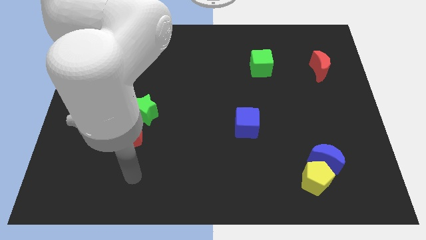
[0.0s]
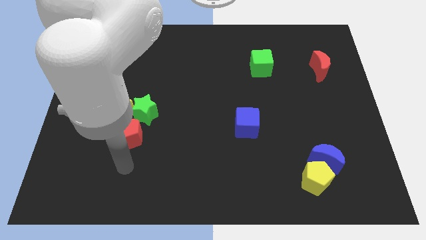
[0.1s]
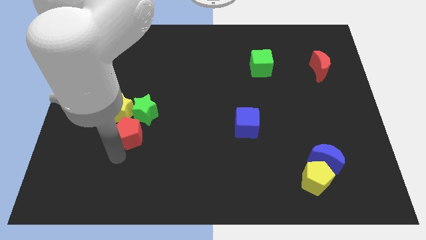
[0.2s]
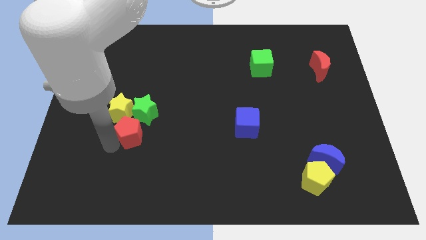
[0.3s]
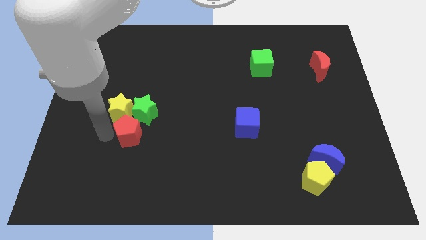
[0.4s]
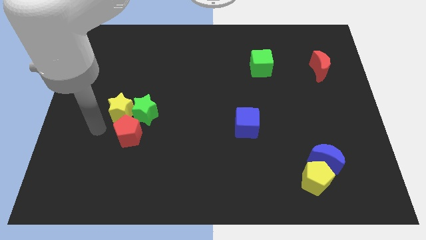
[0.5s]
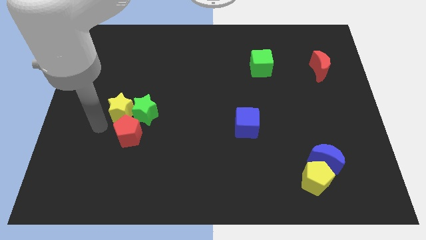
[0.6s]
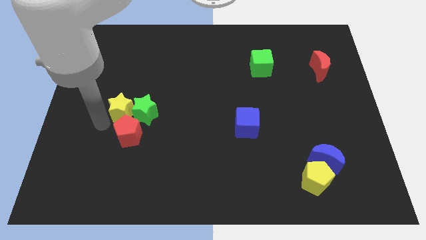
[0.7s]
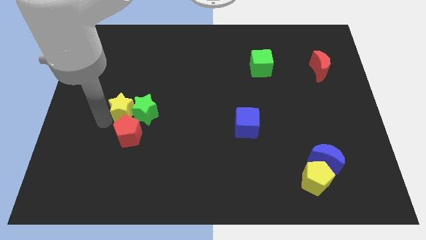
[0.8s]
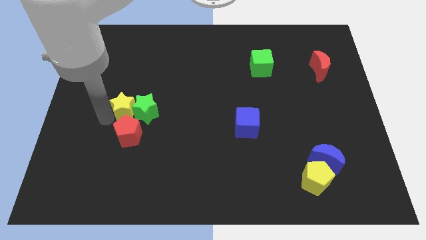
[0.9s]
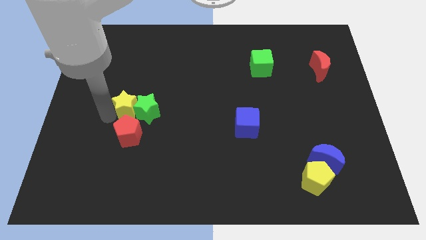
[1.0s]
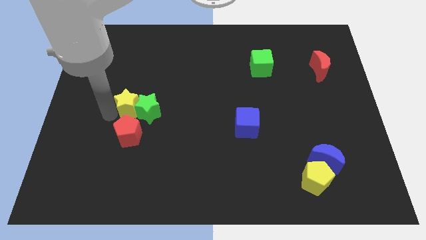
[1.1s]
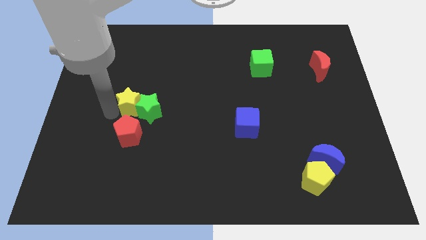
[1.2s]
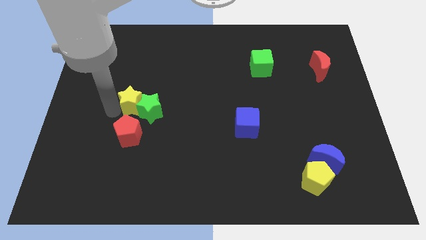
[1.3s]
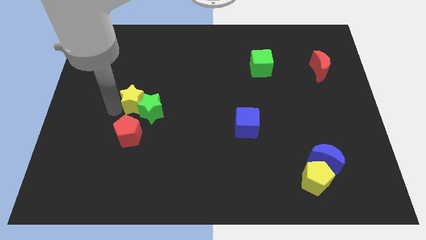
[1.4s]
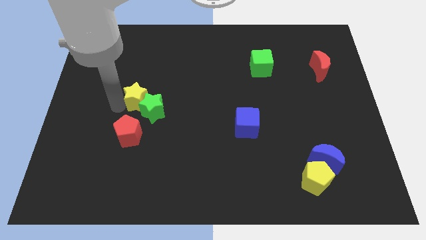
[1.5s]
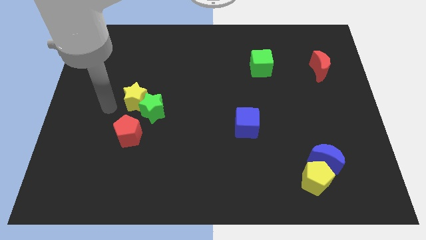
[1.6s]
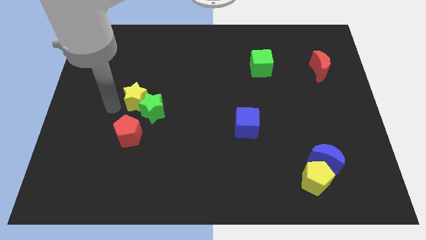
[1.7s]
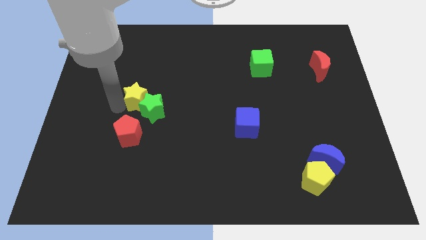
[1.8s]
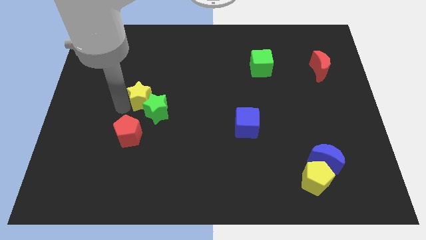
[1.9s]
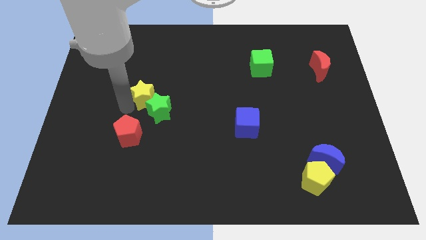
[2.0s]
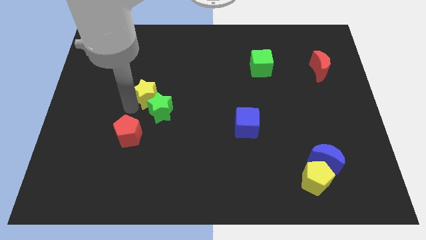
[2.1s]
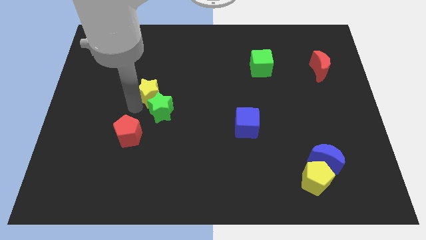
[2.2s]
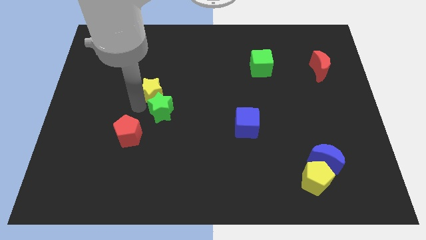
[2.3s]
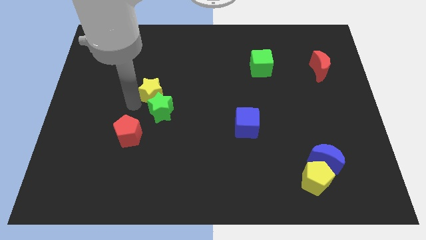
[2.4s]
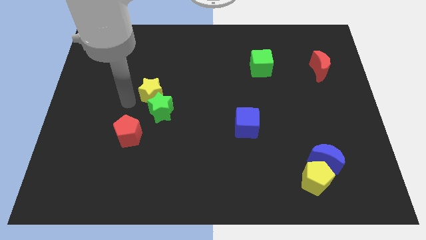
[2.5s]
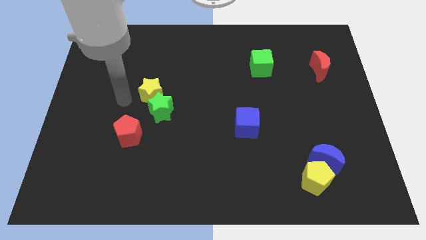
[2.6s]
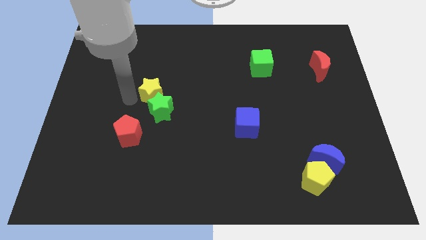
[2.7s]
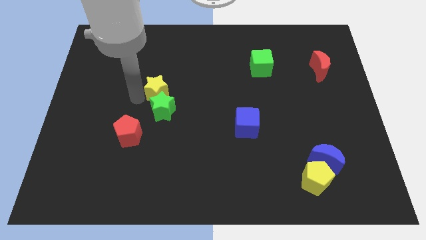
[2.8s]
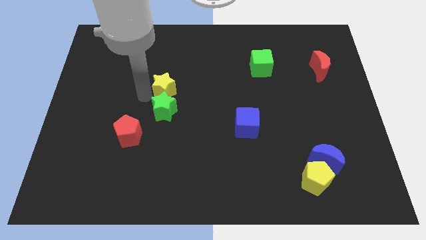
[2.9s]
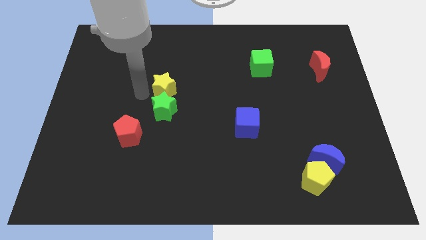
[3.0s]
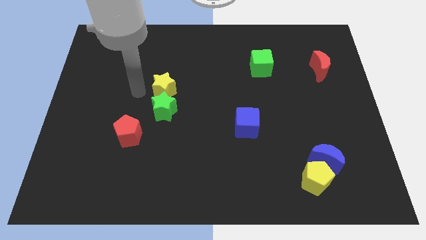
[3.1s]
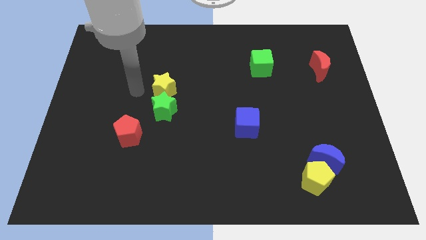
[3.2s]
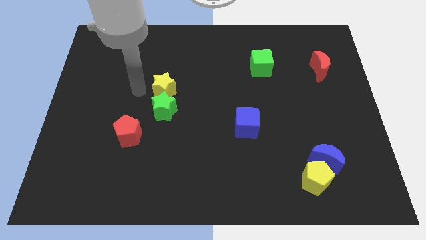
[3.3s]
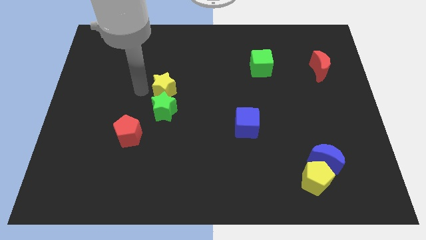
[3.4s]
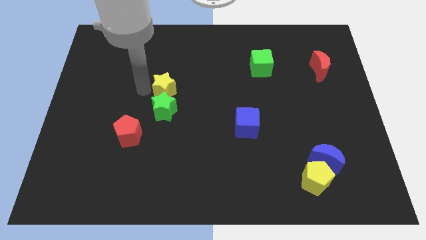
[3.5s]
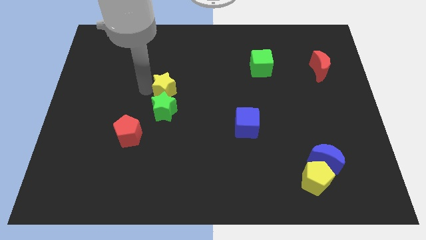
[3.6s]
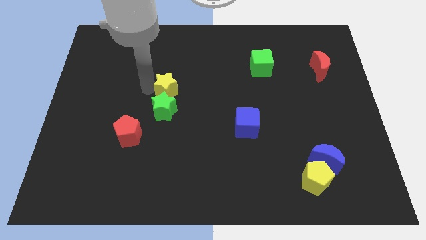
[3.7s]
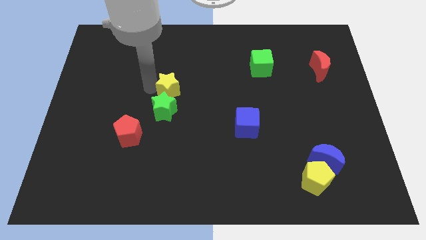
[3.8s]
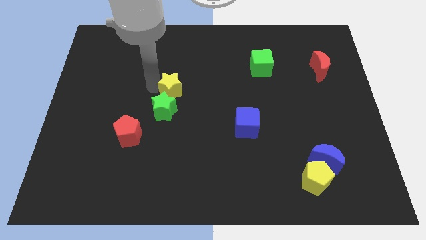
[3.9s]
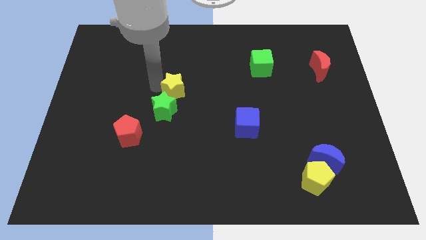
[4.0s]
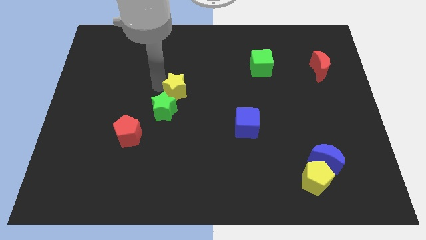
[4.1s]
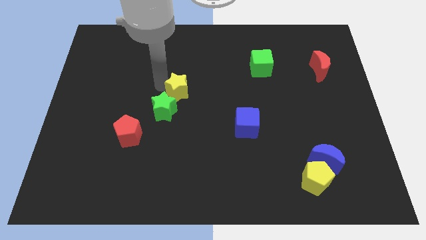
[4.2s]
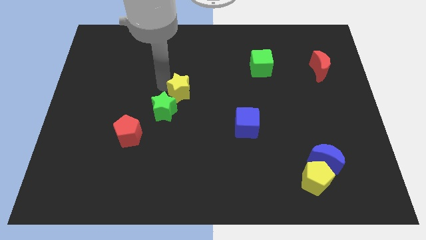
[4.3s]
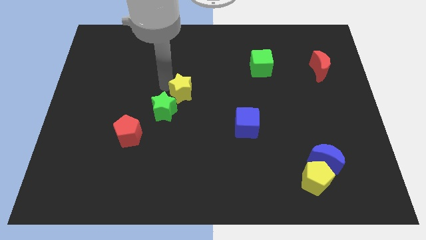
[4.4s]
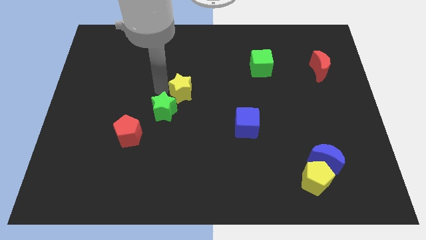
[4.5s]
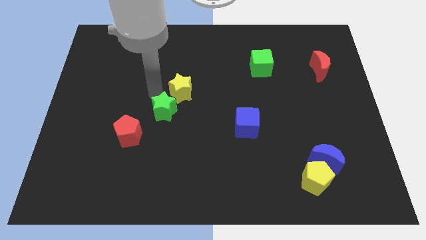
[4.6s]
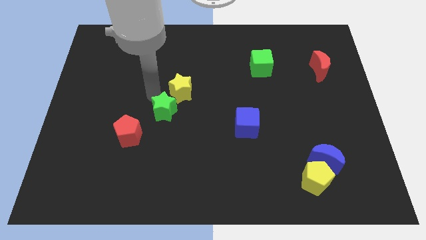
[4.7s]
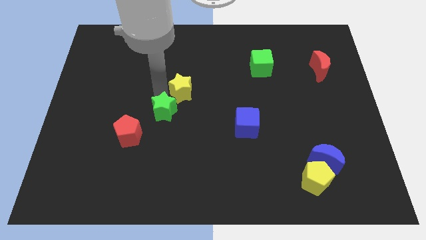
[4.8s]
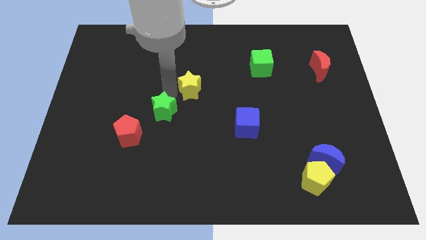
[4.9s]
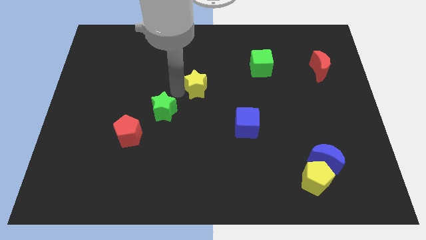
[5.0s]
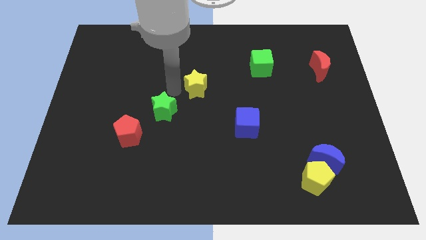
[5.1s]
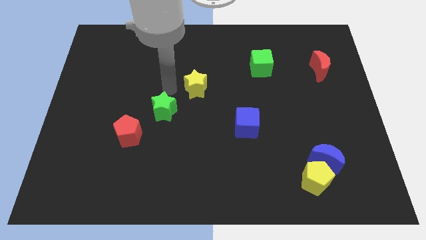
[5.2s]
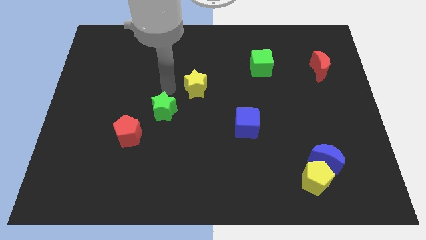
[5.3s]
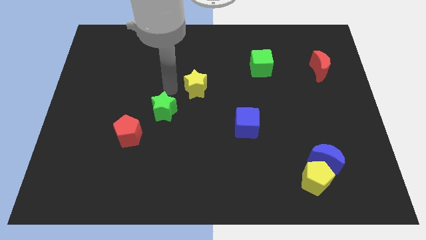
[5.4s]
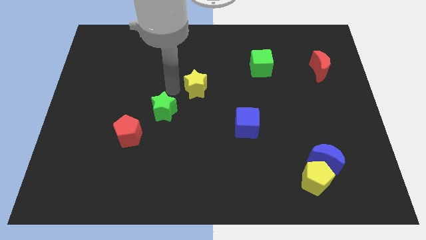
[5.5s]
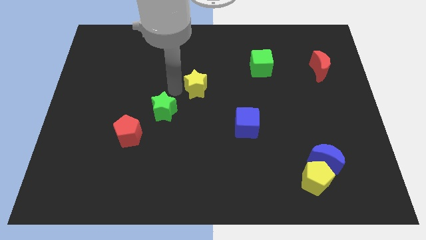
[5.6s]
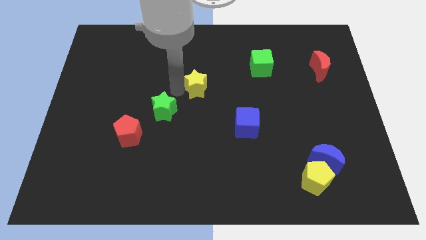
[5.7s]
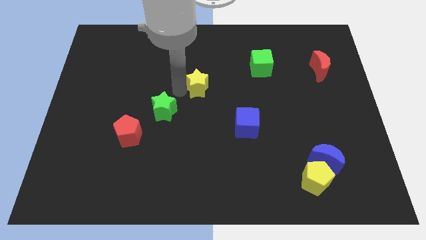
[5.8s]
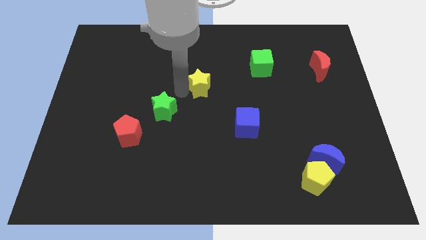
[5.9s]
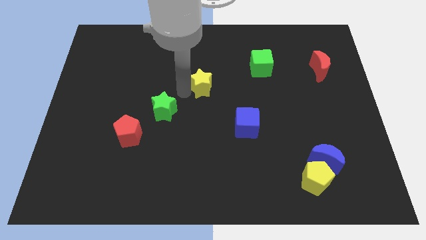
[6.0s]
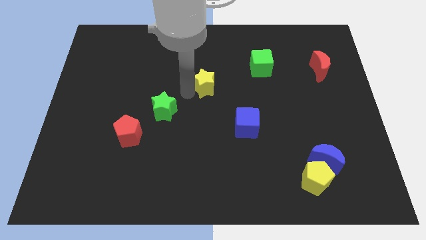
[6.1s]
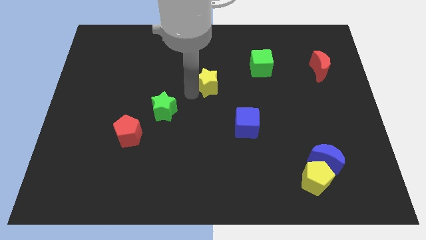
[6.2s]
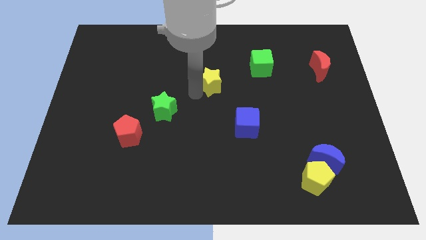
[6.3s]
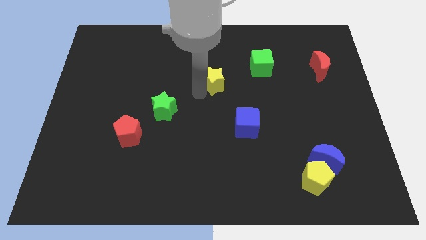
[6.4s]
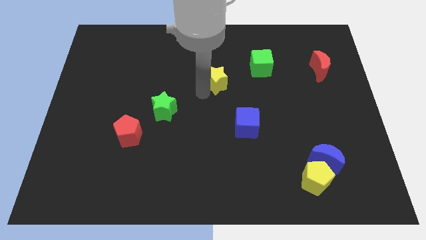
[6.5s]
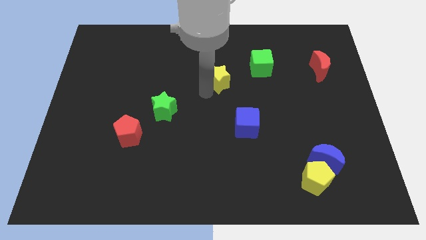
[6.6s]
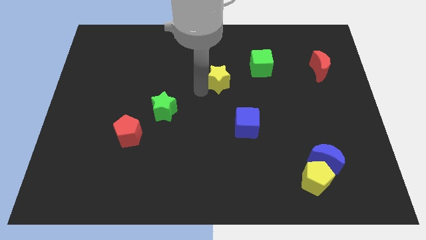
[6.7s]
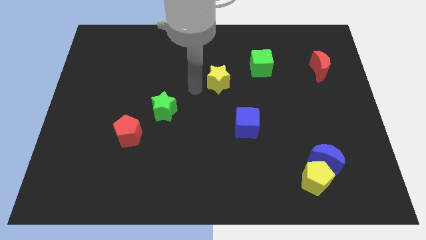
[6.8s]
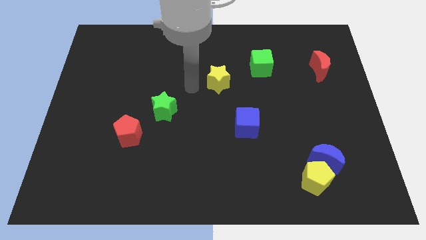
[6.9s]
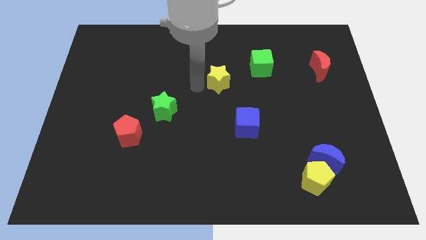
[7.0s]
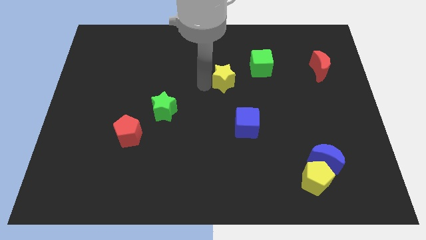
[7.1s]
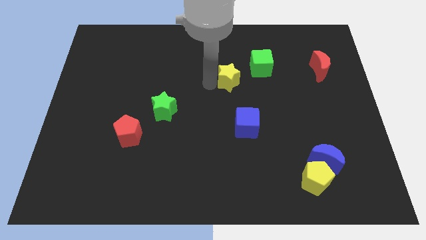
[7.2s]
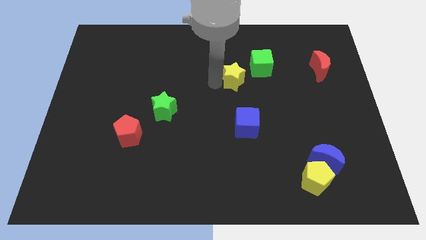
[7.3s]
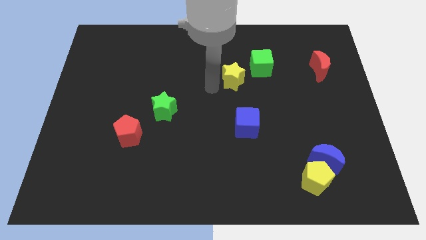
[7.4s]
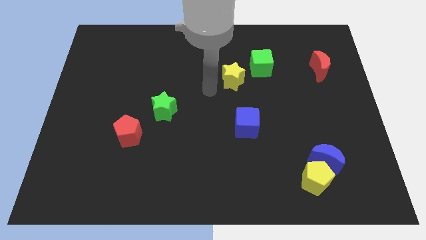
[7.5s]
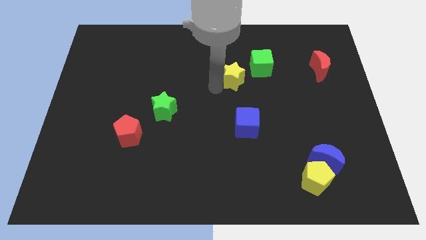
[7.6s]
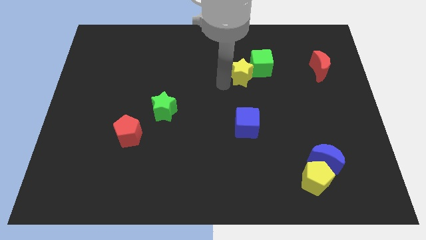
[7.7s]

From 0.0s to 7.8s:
put the yellow star close to the green cube

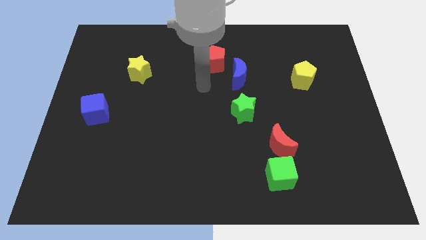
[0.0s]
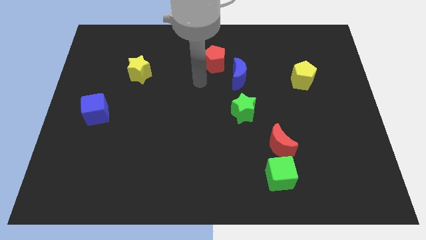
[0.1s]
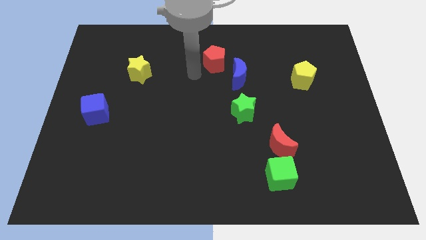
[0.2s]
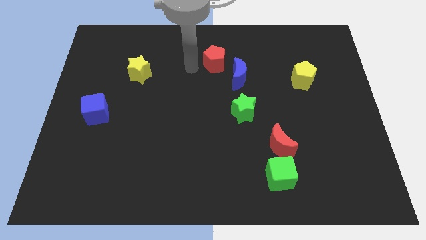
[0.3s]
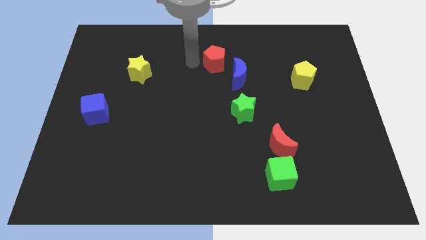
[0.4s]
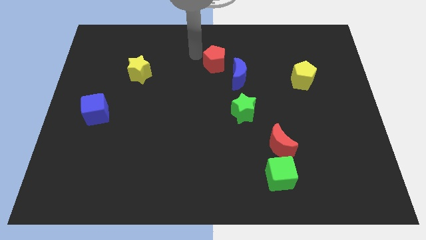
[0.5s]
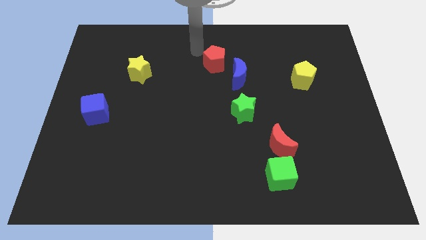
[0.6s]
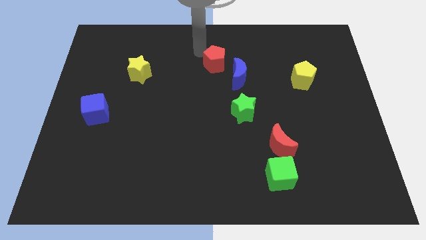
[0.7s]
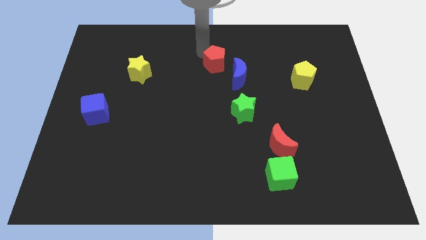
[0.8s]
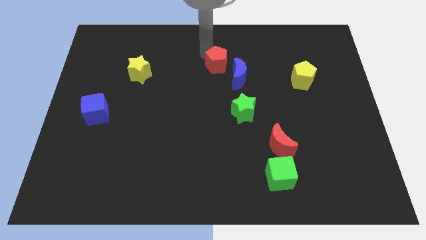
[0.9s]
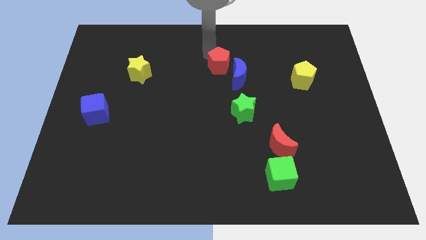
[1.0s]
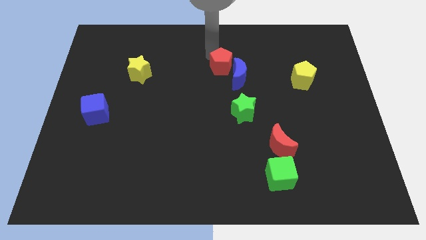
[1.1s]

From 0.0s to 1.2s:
put the red pentagon close to the blue moon
